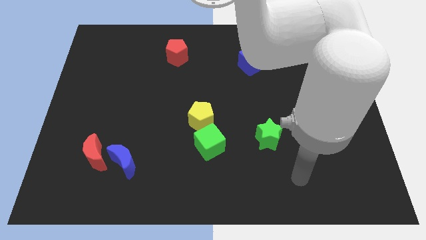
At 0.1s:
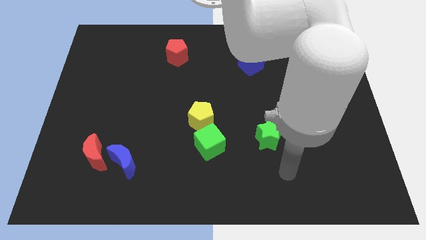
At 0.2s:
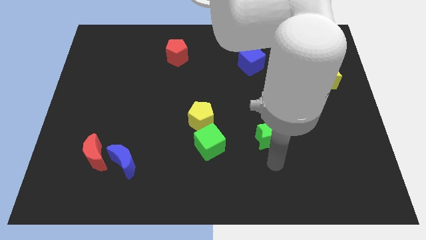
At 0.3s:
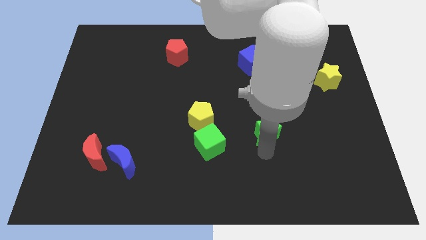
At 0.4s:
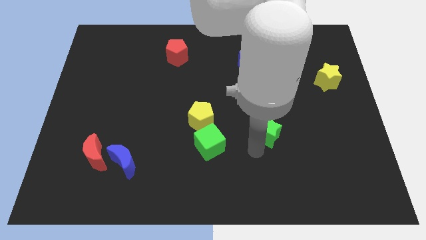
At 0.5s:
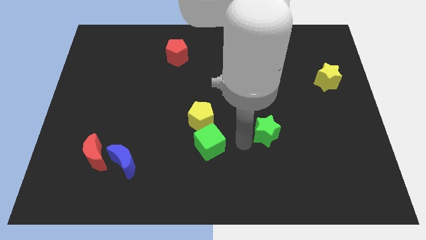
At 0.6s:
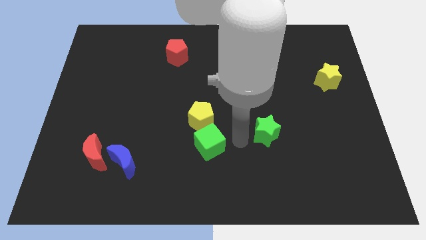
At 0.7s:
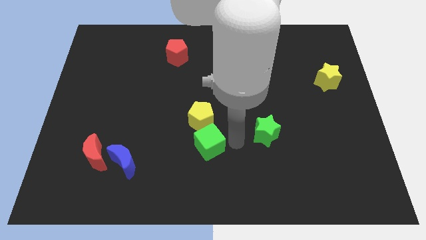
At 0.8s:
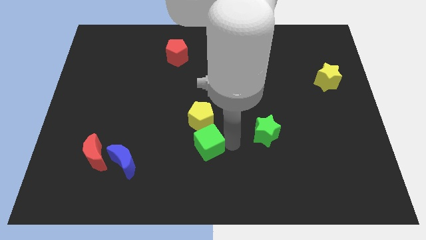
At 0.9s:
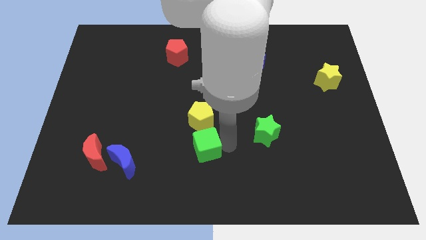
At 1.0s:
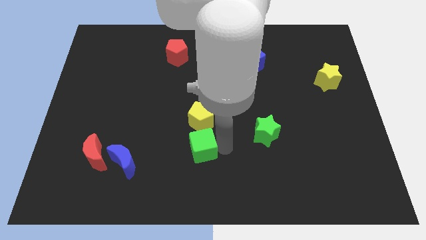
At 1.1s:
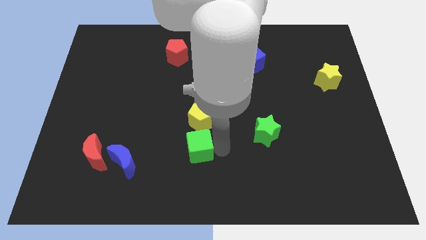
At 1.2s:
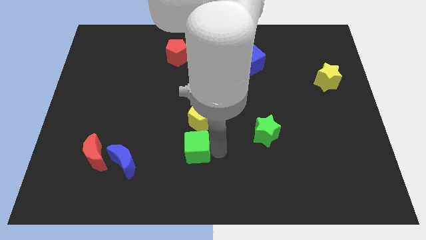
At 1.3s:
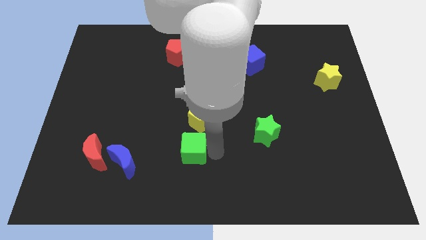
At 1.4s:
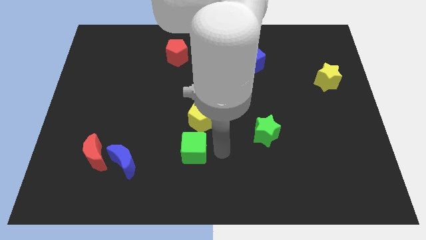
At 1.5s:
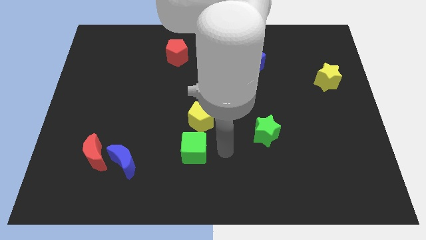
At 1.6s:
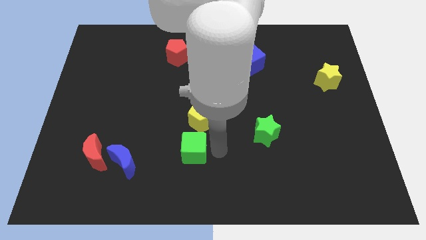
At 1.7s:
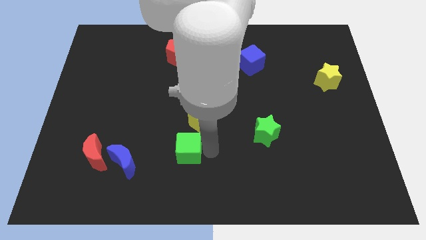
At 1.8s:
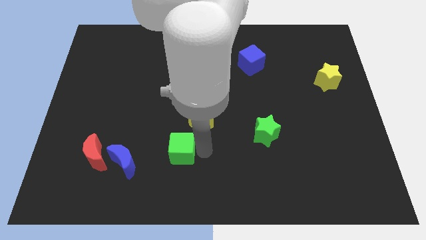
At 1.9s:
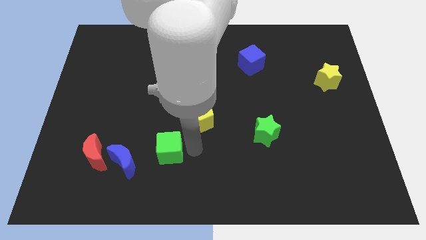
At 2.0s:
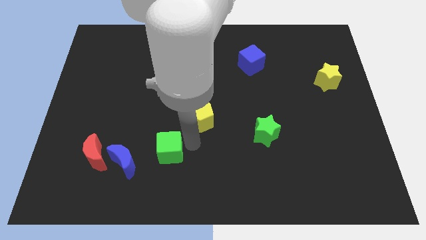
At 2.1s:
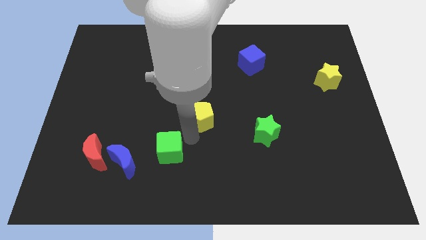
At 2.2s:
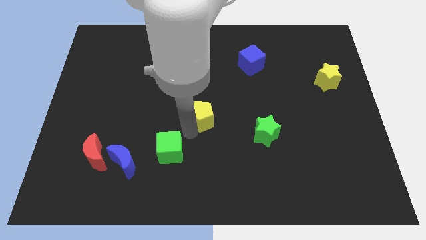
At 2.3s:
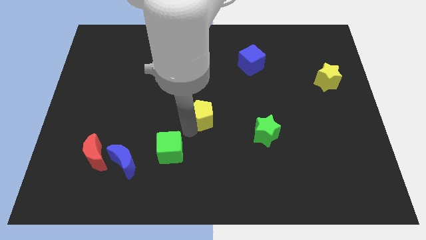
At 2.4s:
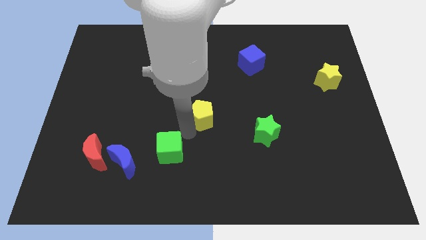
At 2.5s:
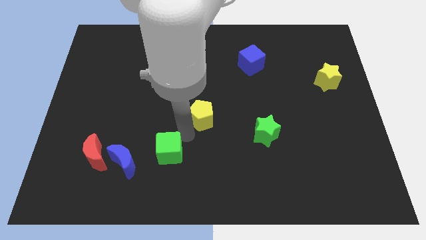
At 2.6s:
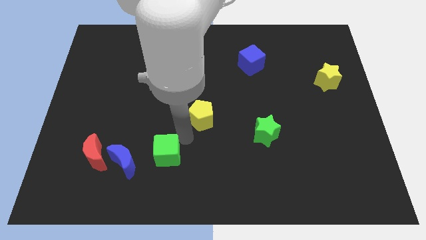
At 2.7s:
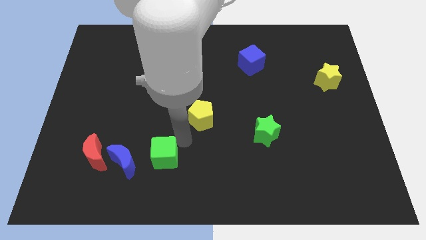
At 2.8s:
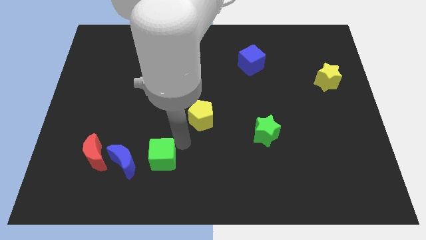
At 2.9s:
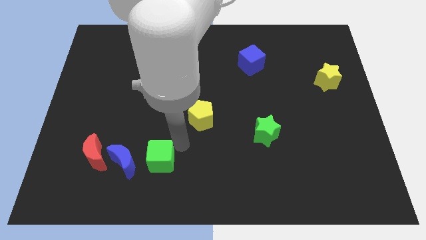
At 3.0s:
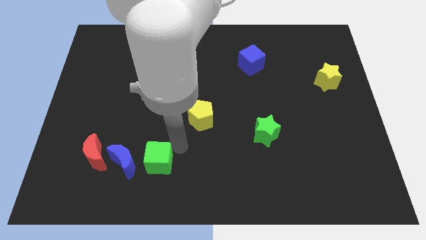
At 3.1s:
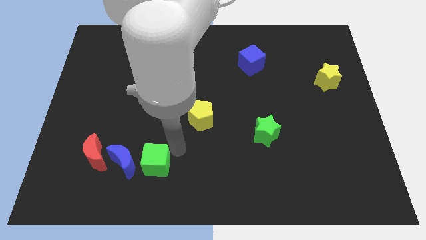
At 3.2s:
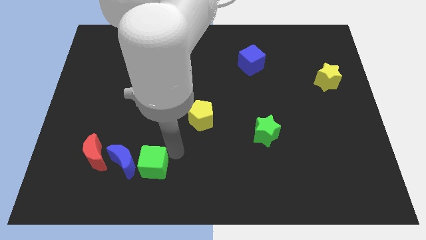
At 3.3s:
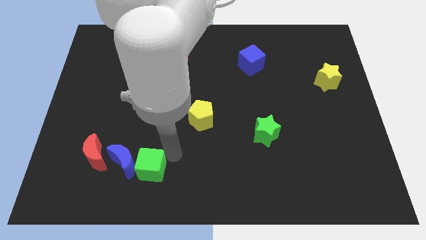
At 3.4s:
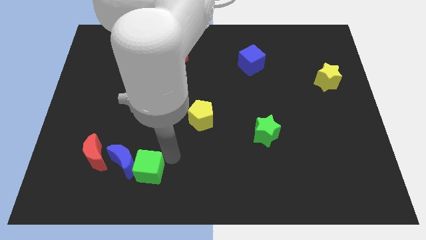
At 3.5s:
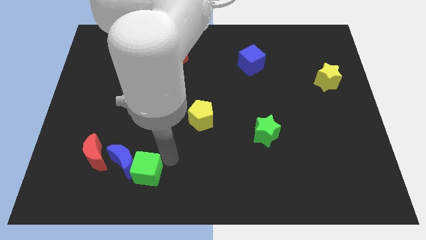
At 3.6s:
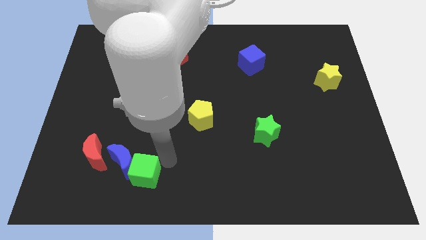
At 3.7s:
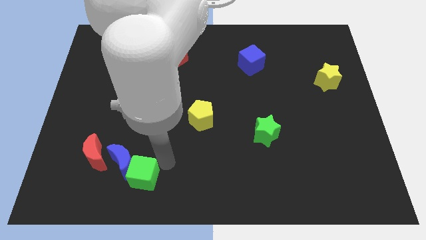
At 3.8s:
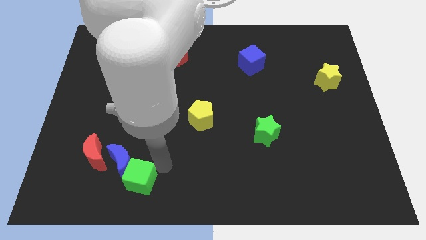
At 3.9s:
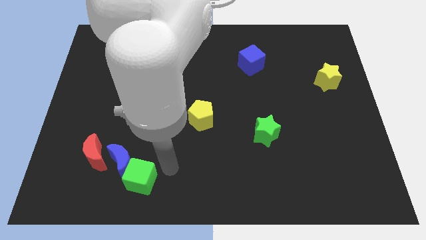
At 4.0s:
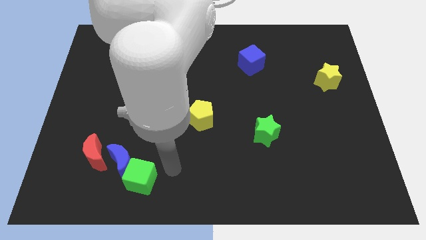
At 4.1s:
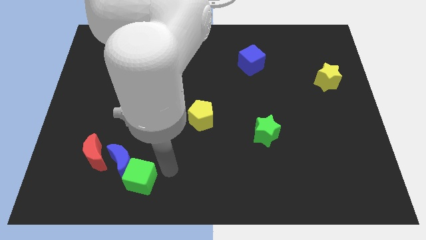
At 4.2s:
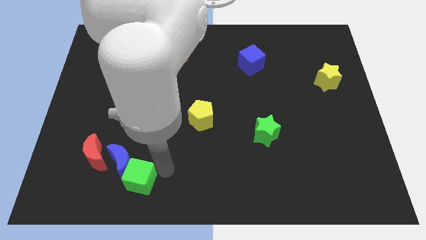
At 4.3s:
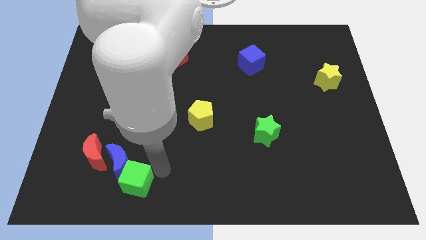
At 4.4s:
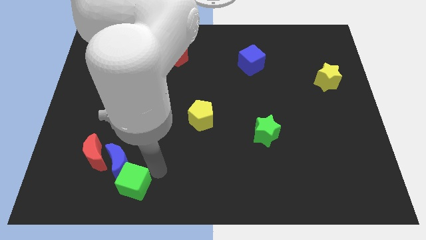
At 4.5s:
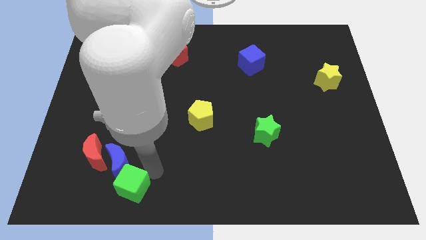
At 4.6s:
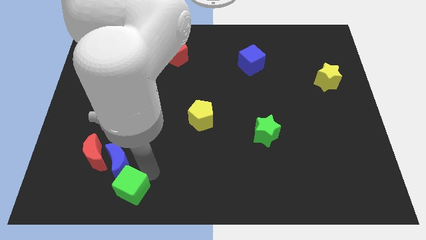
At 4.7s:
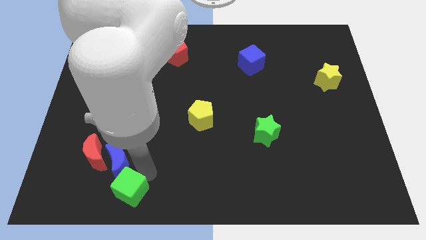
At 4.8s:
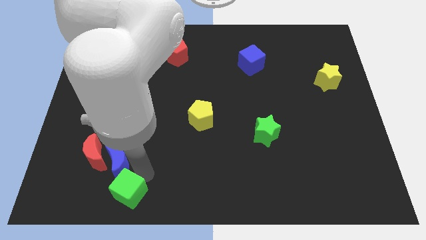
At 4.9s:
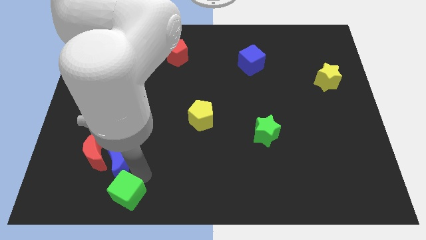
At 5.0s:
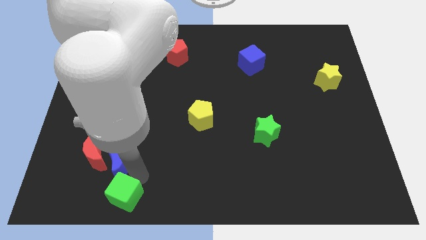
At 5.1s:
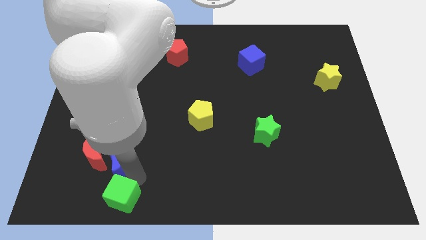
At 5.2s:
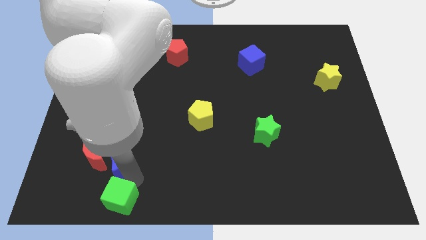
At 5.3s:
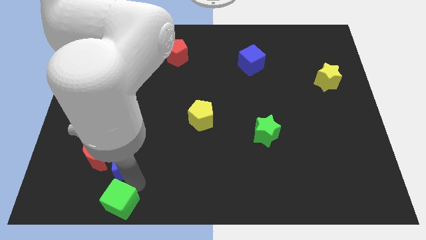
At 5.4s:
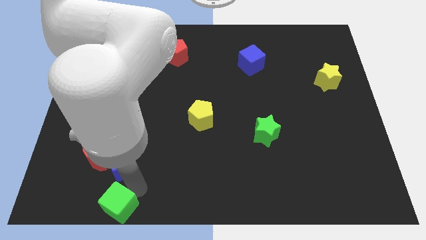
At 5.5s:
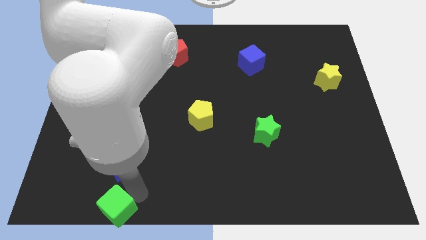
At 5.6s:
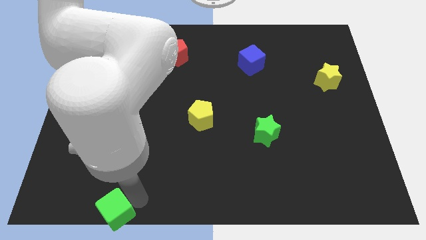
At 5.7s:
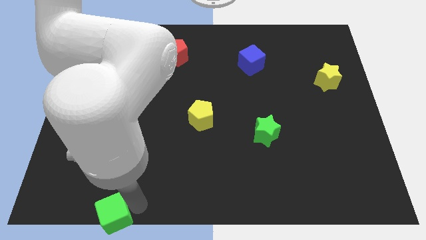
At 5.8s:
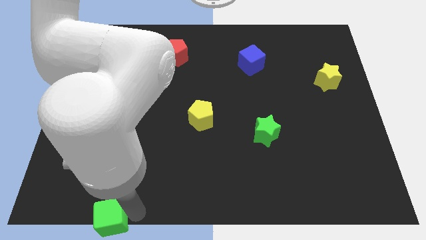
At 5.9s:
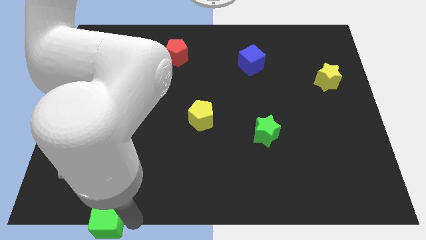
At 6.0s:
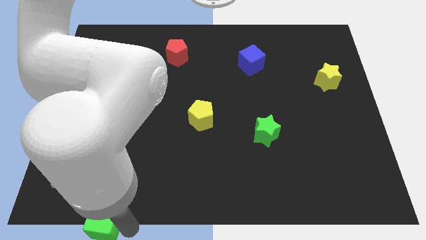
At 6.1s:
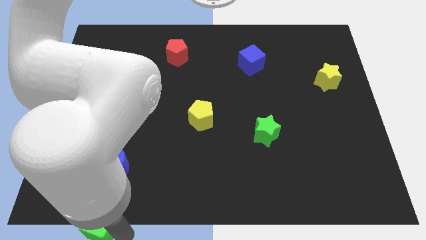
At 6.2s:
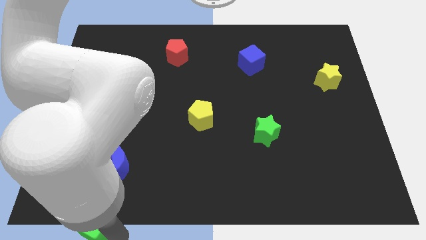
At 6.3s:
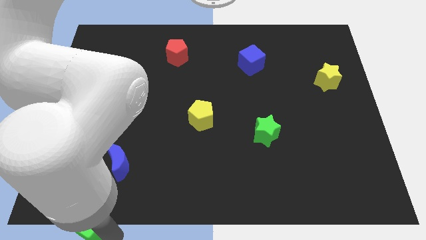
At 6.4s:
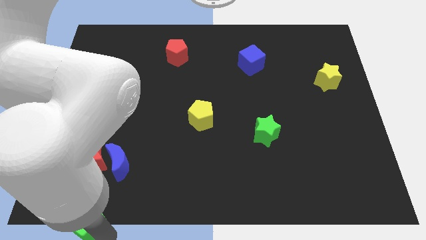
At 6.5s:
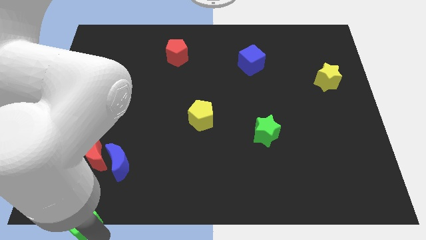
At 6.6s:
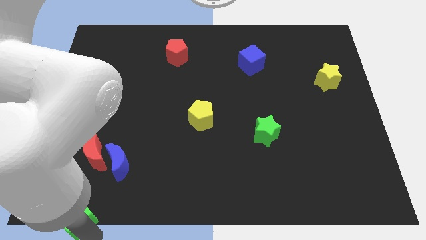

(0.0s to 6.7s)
move the green cube to the bottom left of the board
